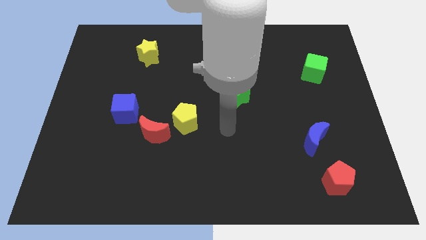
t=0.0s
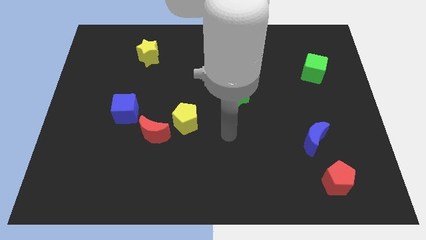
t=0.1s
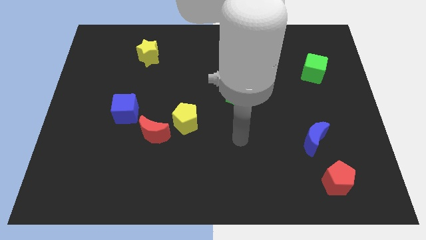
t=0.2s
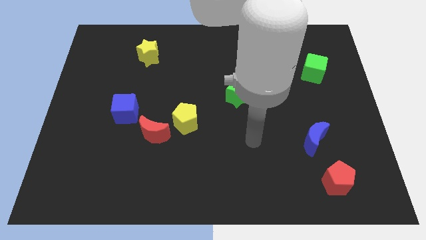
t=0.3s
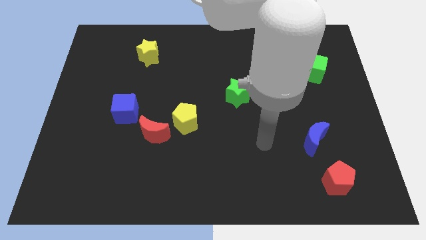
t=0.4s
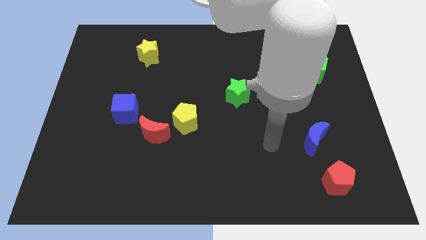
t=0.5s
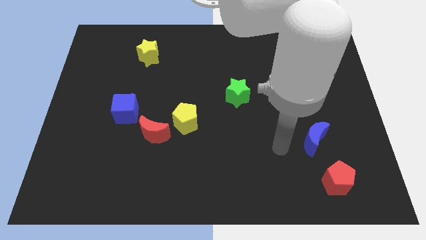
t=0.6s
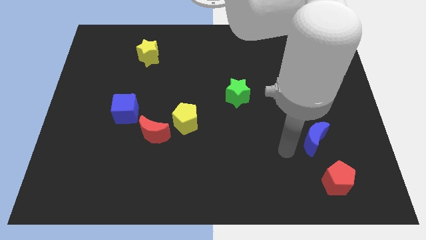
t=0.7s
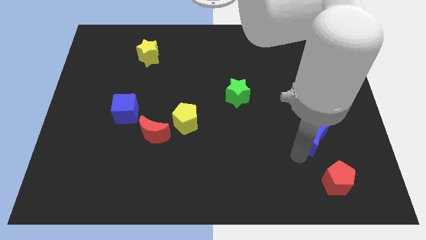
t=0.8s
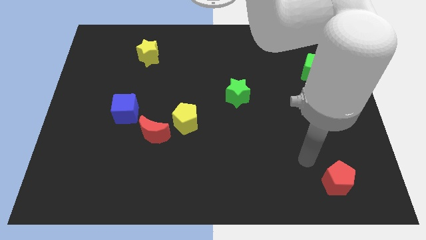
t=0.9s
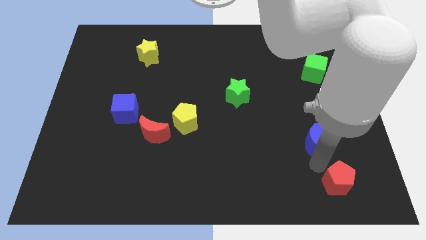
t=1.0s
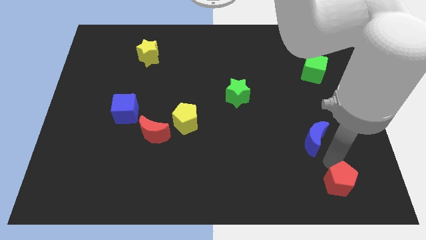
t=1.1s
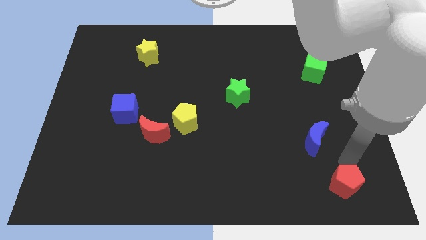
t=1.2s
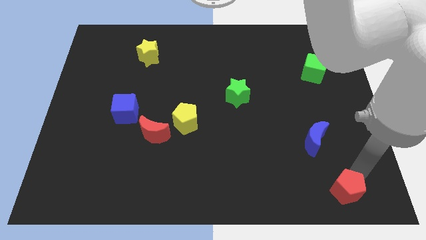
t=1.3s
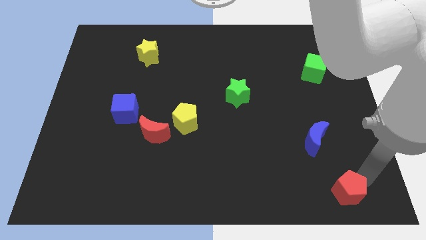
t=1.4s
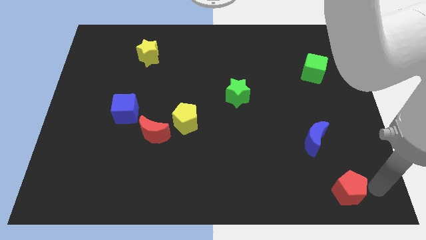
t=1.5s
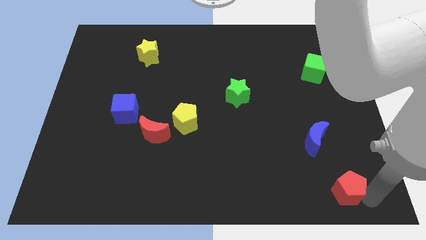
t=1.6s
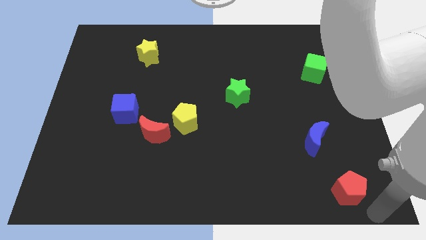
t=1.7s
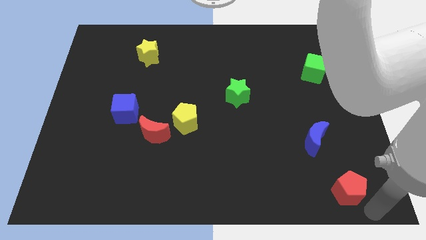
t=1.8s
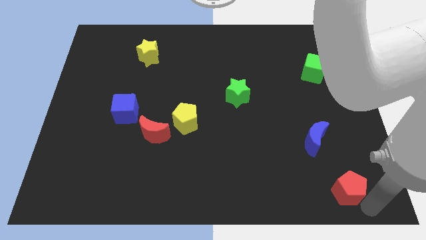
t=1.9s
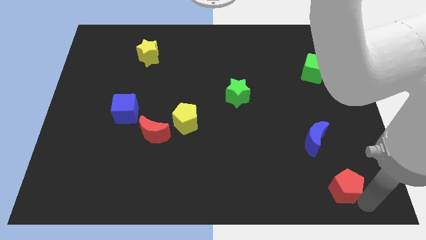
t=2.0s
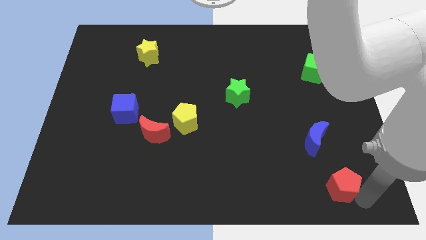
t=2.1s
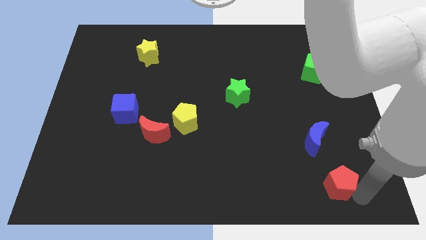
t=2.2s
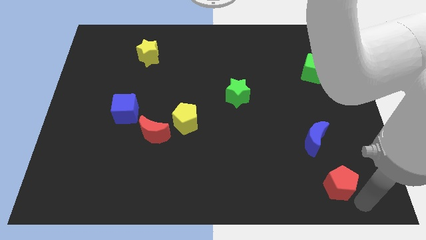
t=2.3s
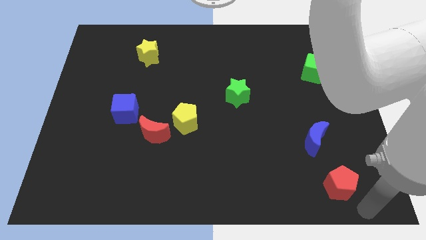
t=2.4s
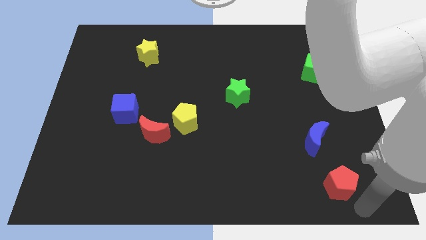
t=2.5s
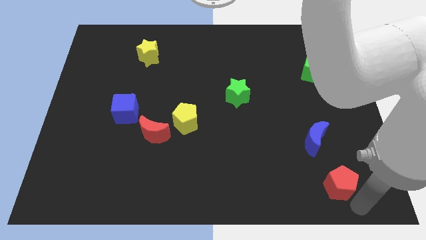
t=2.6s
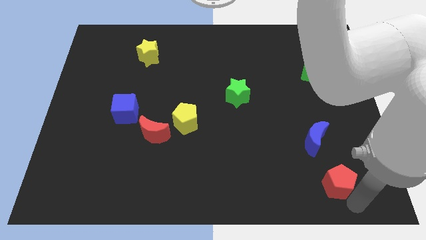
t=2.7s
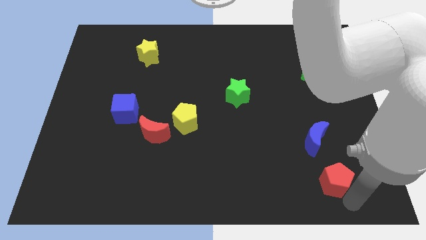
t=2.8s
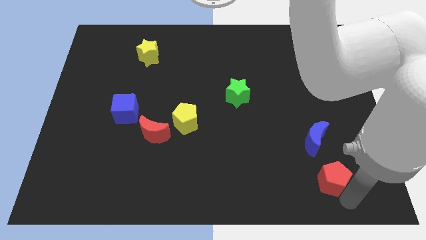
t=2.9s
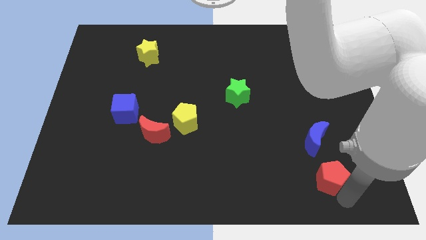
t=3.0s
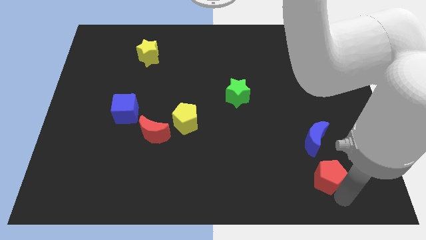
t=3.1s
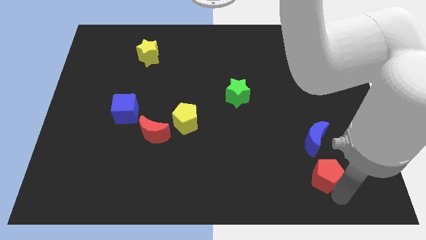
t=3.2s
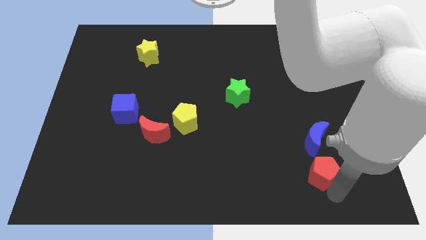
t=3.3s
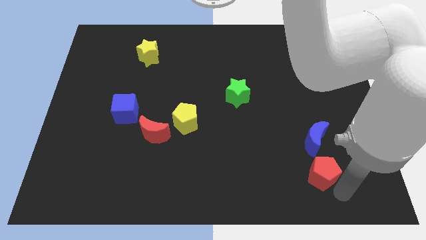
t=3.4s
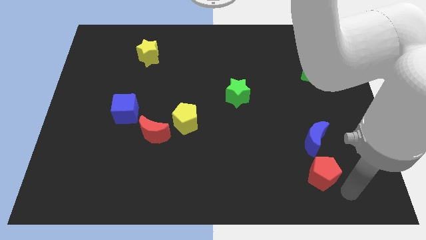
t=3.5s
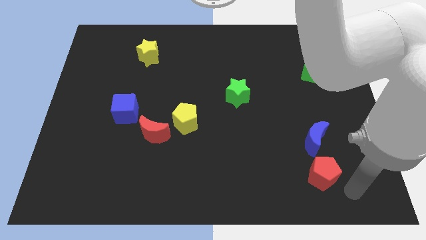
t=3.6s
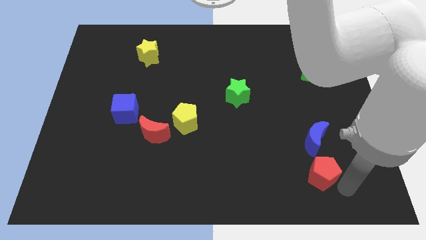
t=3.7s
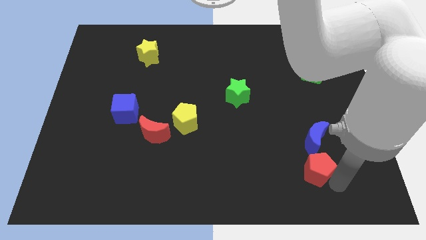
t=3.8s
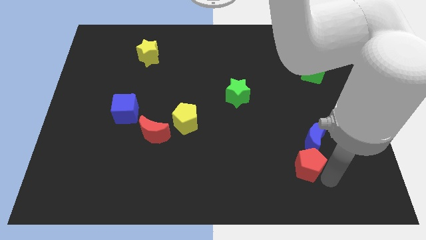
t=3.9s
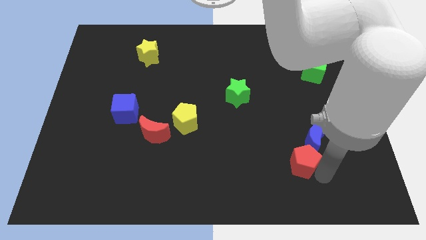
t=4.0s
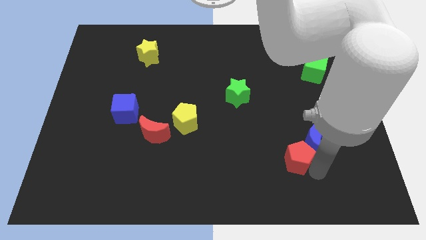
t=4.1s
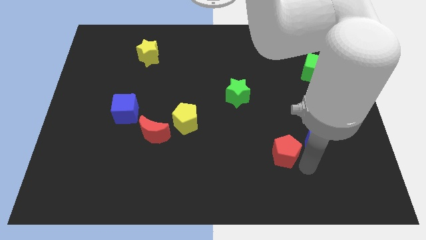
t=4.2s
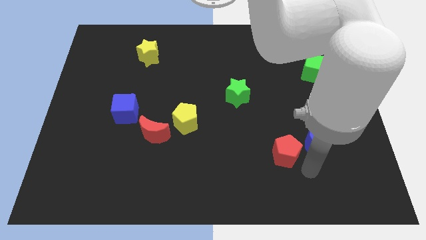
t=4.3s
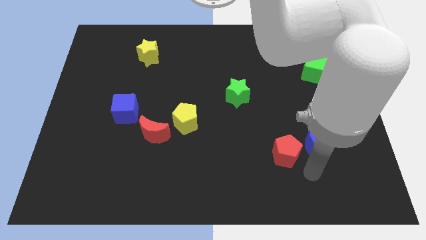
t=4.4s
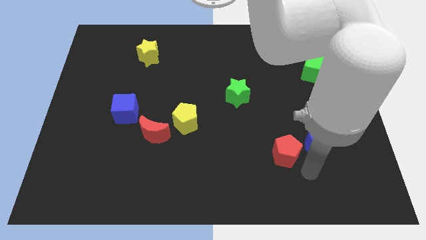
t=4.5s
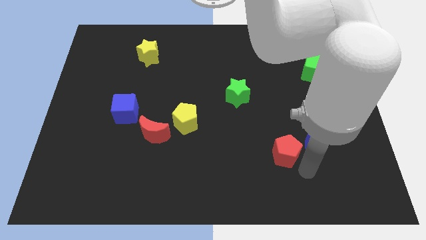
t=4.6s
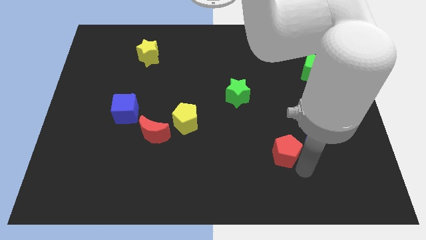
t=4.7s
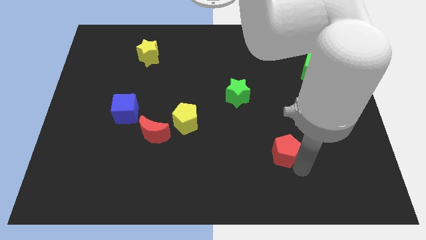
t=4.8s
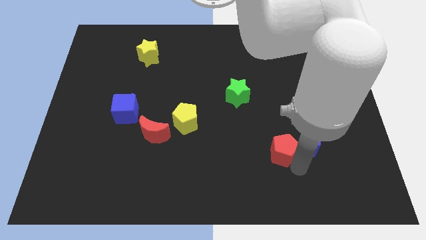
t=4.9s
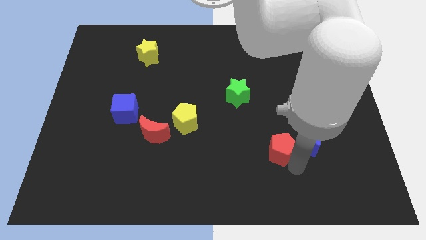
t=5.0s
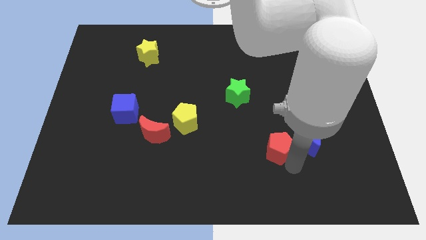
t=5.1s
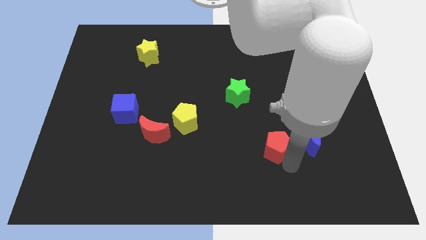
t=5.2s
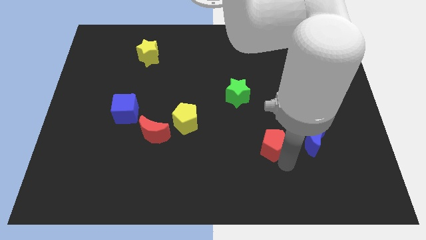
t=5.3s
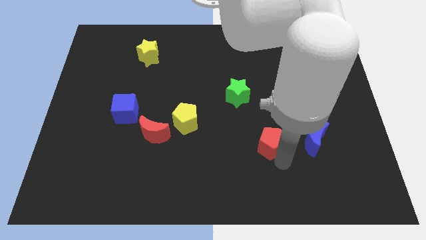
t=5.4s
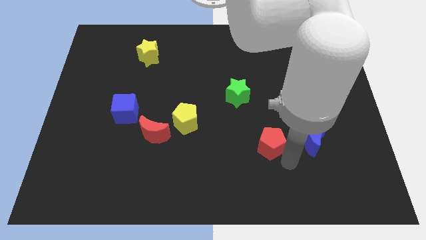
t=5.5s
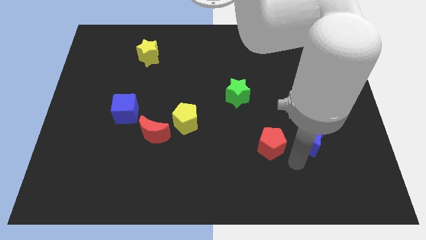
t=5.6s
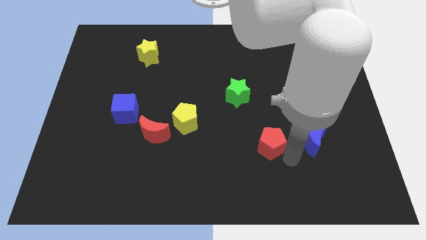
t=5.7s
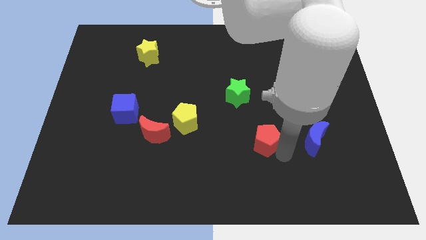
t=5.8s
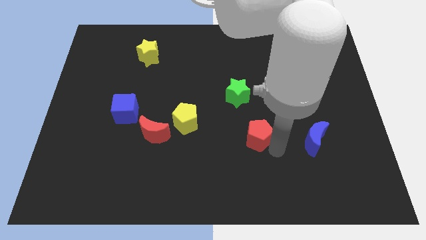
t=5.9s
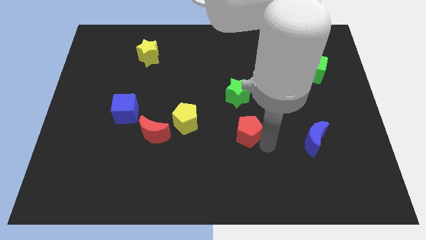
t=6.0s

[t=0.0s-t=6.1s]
put the red pentagon to the center of the board
